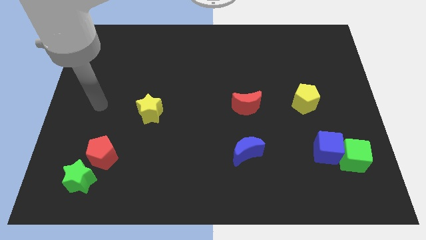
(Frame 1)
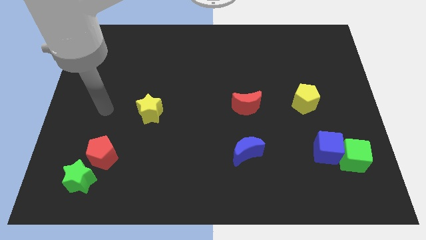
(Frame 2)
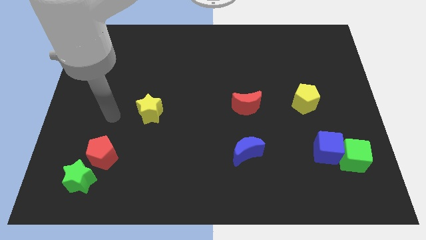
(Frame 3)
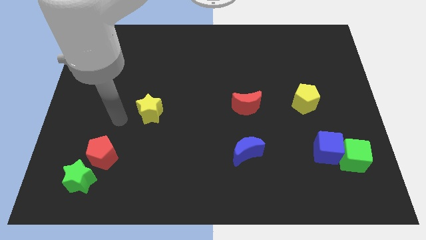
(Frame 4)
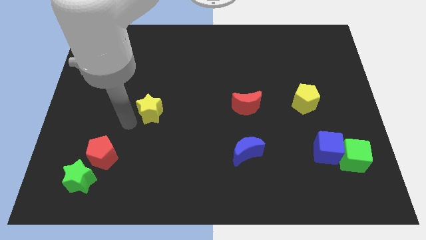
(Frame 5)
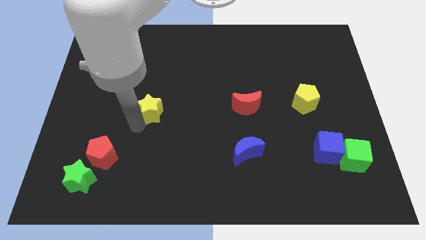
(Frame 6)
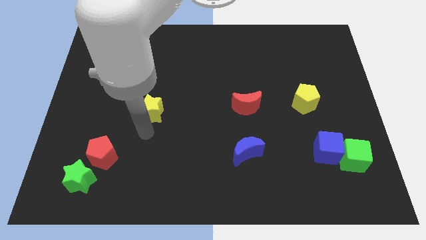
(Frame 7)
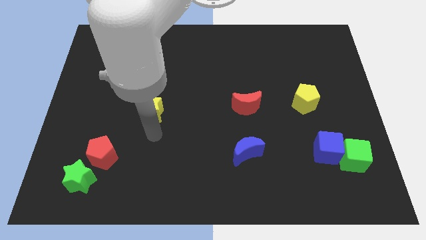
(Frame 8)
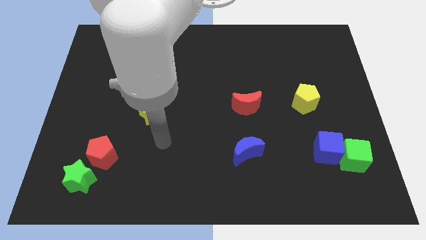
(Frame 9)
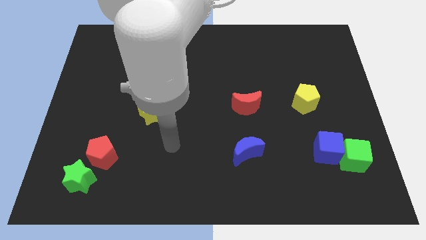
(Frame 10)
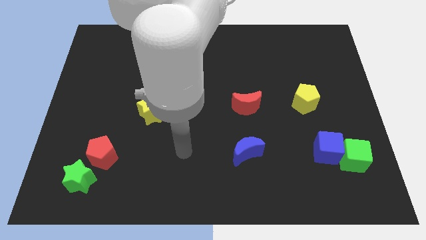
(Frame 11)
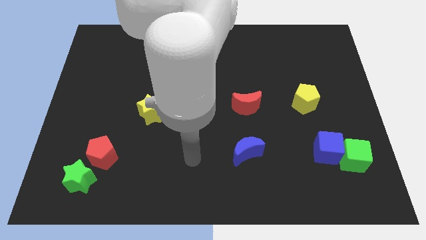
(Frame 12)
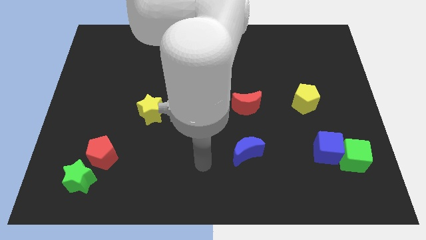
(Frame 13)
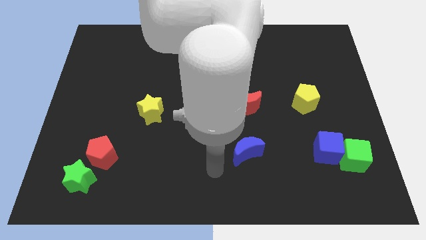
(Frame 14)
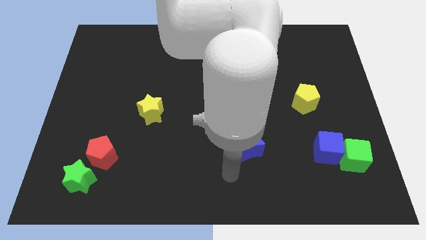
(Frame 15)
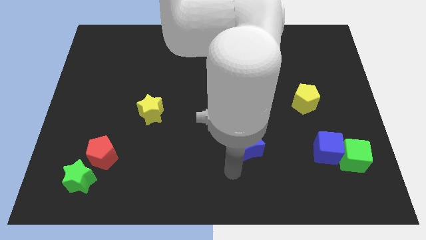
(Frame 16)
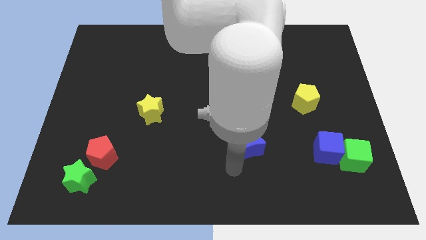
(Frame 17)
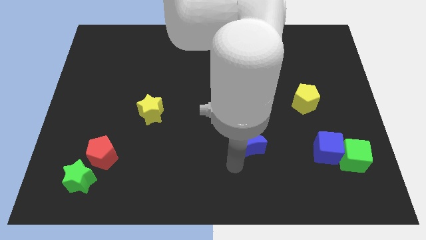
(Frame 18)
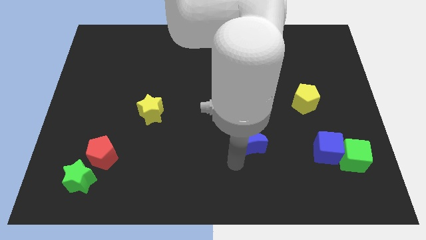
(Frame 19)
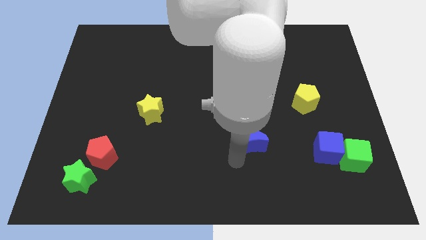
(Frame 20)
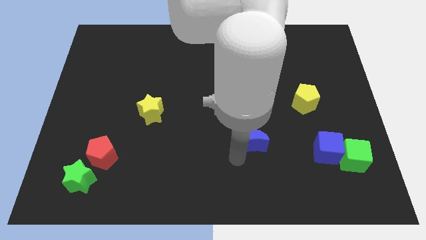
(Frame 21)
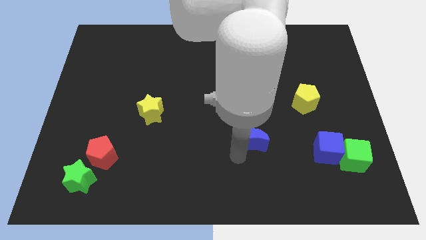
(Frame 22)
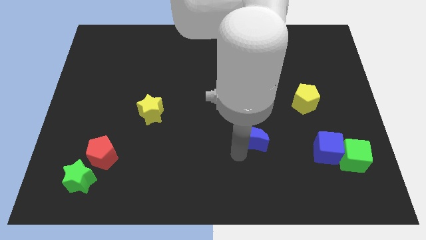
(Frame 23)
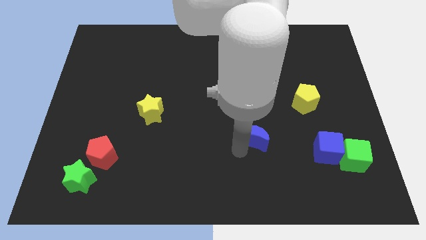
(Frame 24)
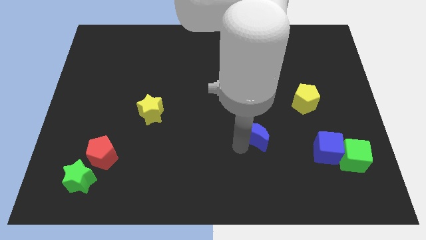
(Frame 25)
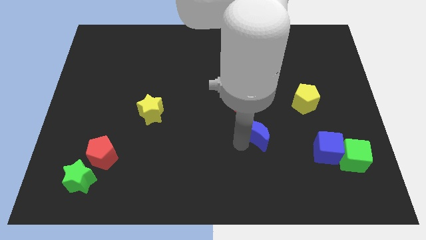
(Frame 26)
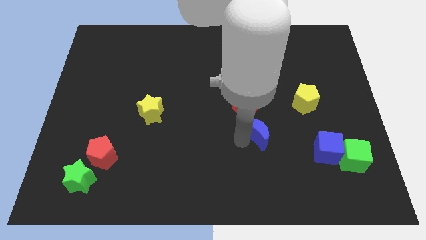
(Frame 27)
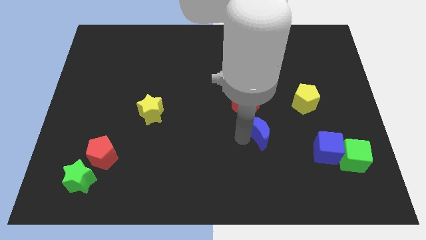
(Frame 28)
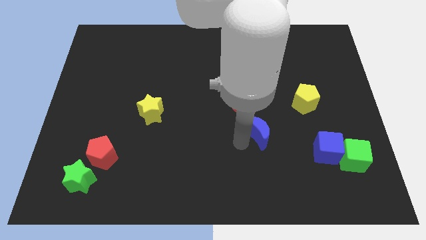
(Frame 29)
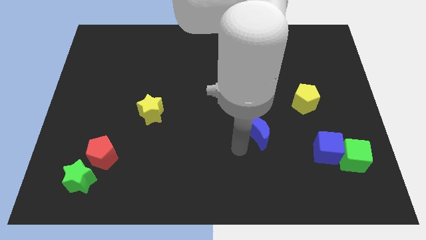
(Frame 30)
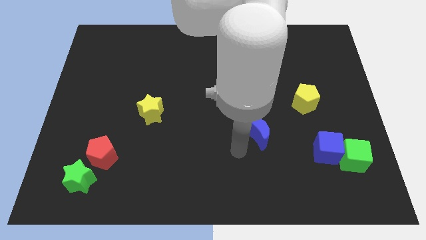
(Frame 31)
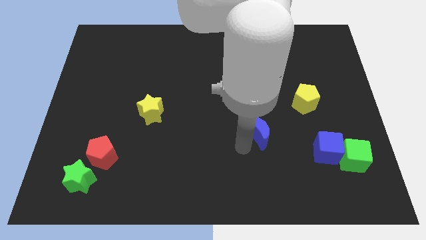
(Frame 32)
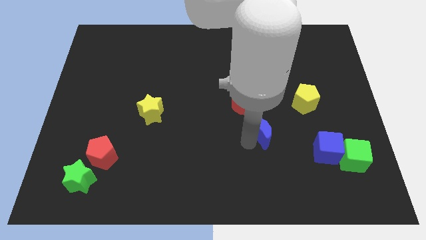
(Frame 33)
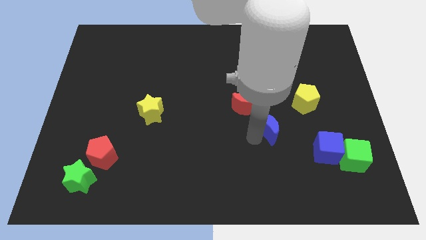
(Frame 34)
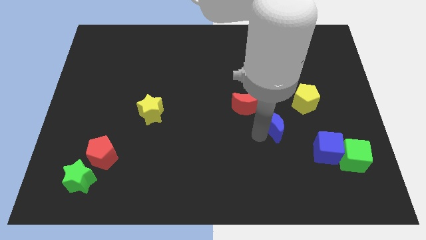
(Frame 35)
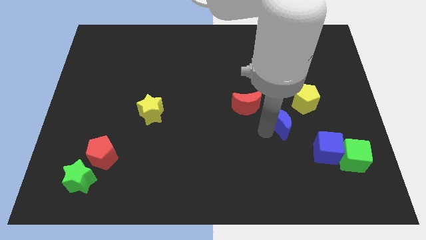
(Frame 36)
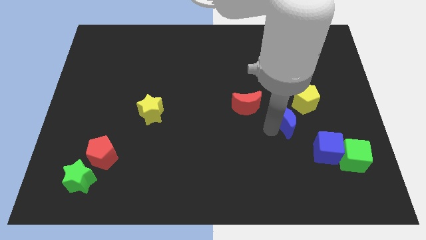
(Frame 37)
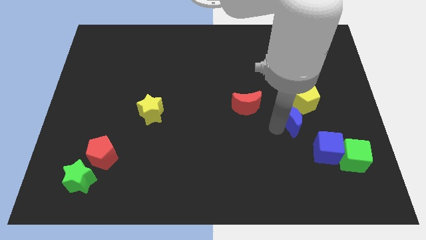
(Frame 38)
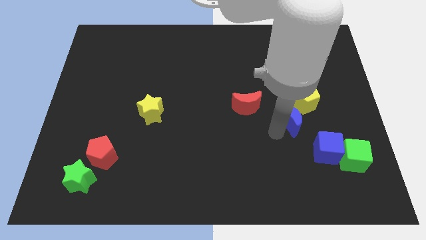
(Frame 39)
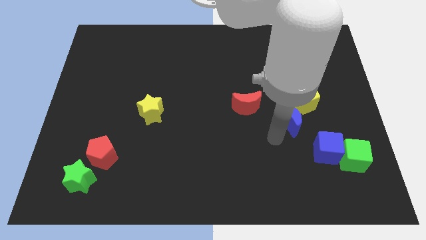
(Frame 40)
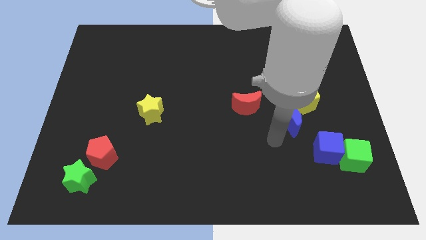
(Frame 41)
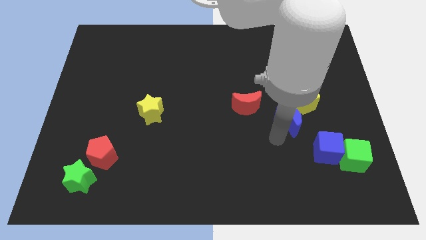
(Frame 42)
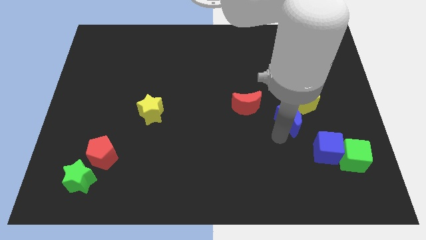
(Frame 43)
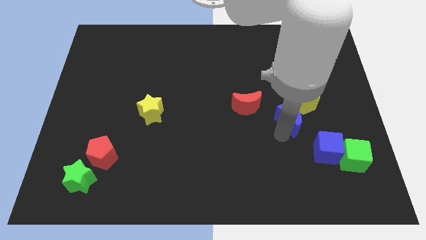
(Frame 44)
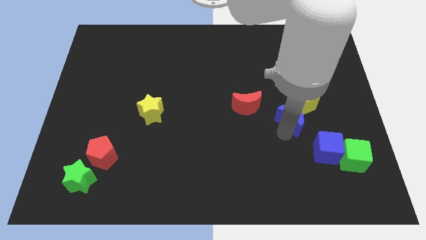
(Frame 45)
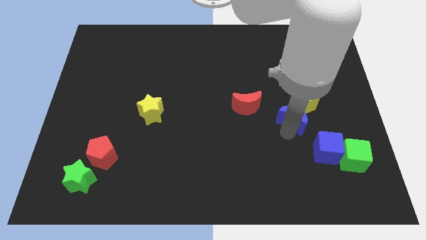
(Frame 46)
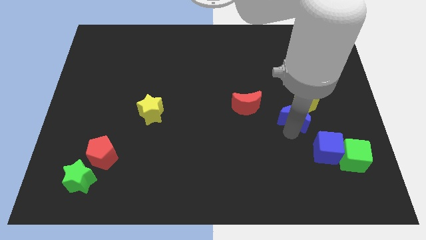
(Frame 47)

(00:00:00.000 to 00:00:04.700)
move the blue moon towards the yellow pentagon

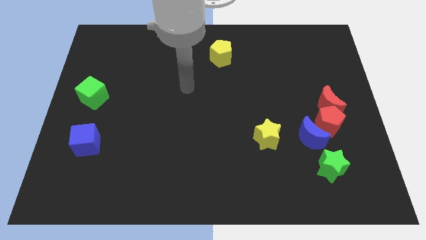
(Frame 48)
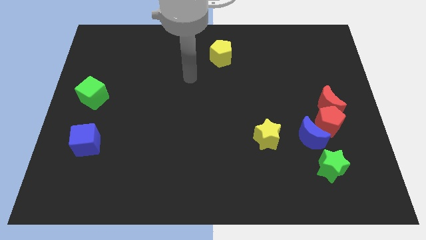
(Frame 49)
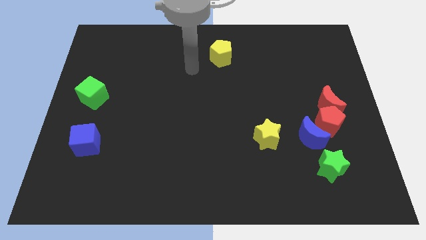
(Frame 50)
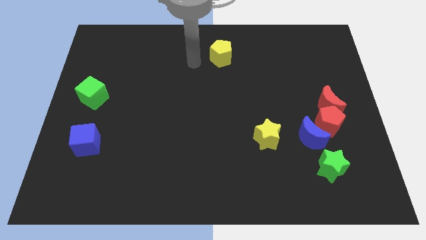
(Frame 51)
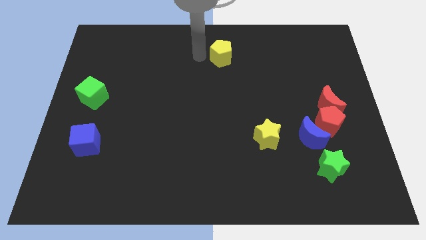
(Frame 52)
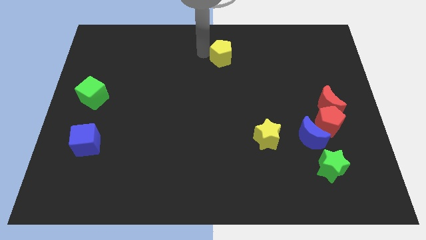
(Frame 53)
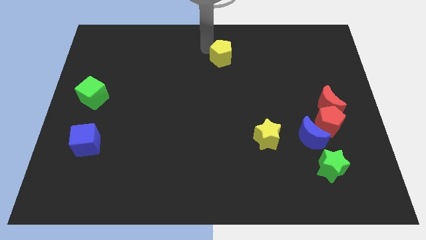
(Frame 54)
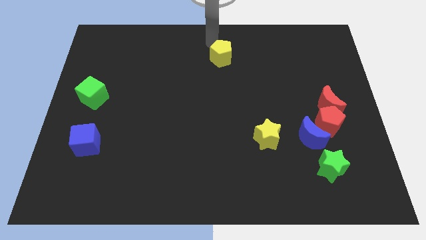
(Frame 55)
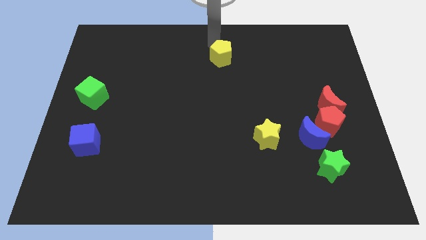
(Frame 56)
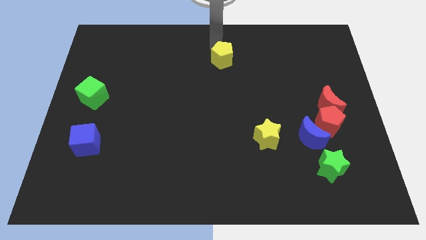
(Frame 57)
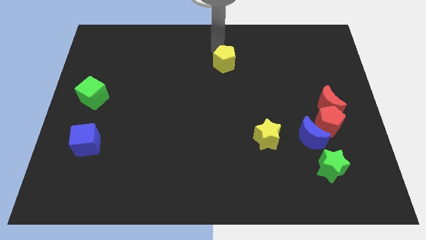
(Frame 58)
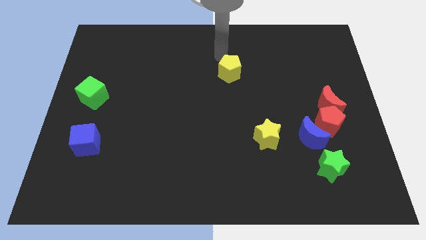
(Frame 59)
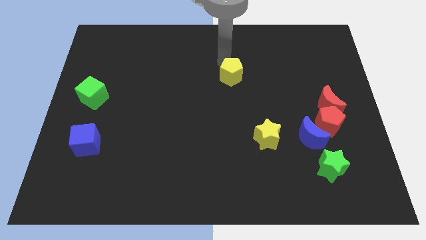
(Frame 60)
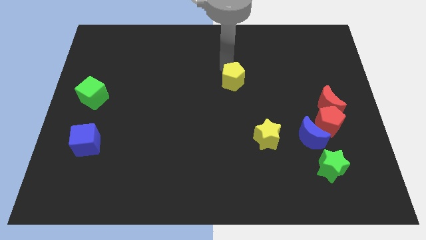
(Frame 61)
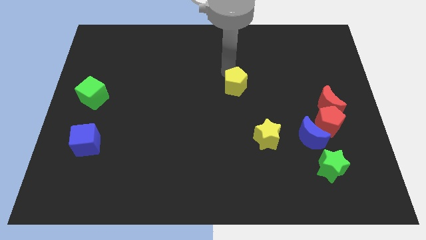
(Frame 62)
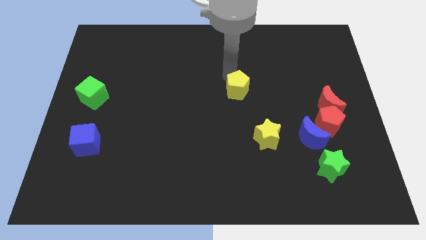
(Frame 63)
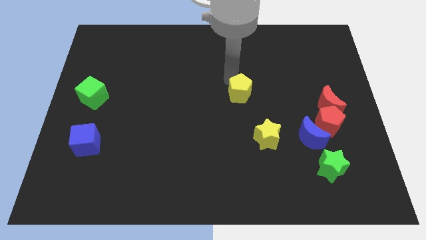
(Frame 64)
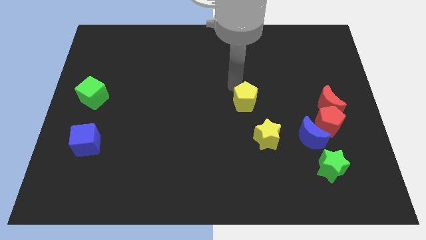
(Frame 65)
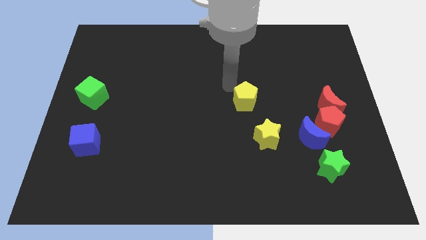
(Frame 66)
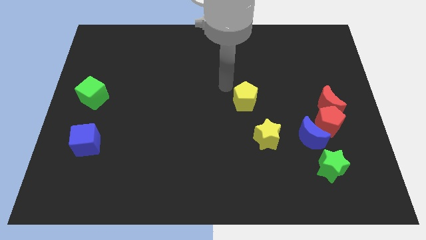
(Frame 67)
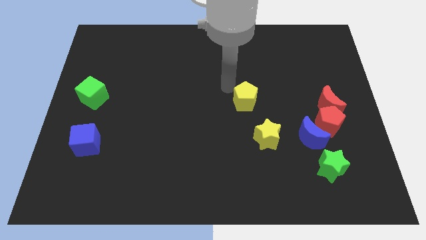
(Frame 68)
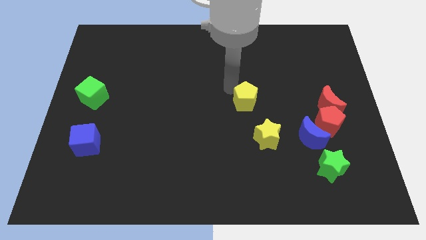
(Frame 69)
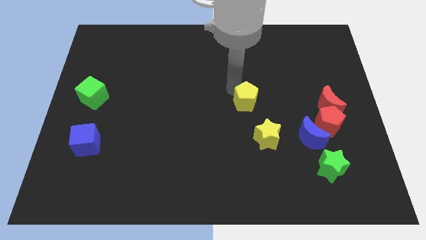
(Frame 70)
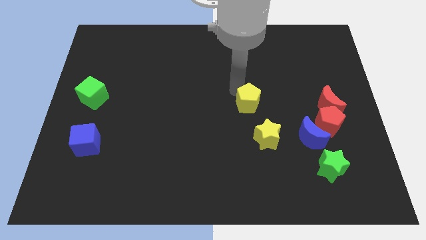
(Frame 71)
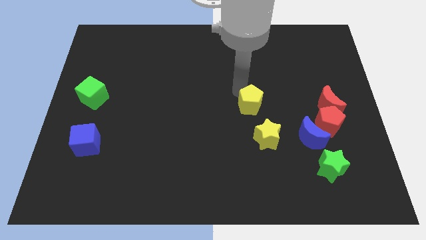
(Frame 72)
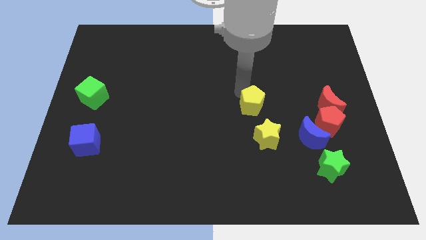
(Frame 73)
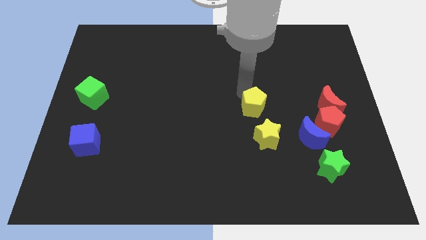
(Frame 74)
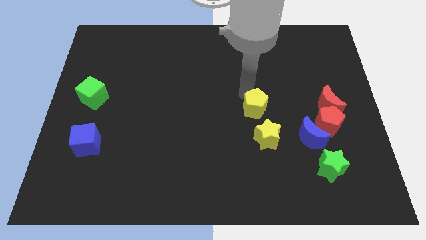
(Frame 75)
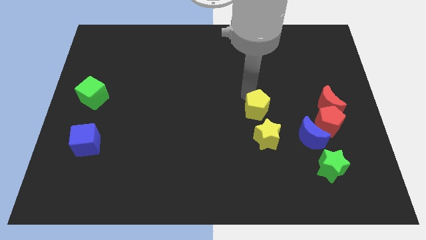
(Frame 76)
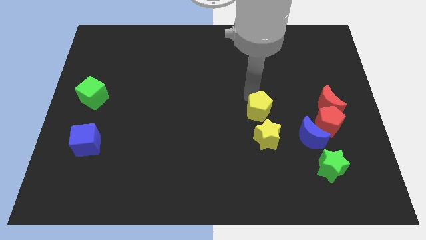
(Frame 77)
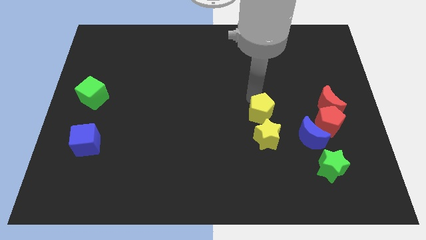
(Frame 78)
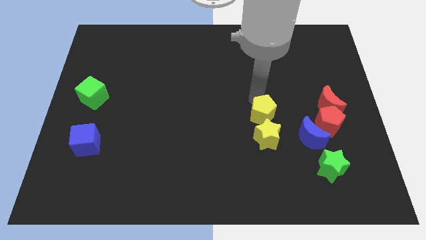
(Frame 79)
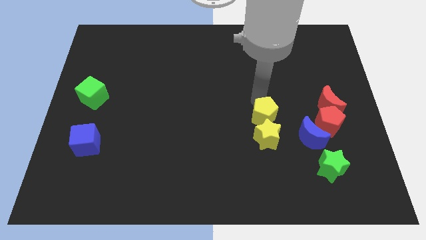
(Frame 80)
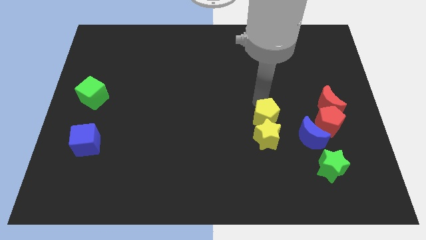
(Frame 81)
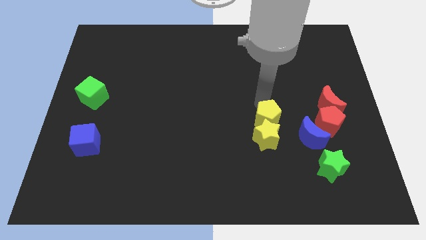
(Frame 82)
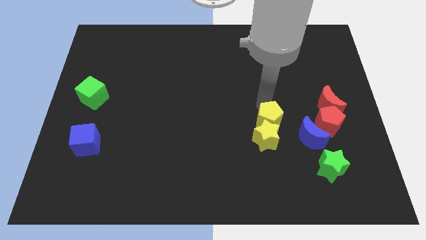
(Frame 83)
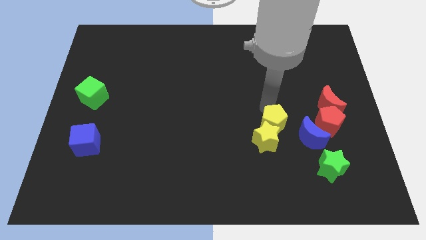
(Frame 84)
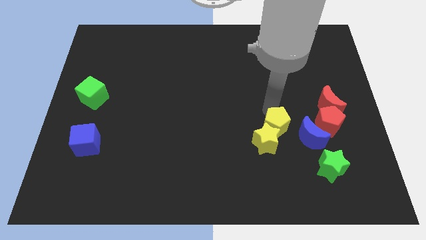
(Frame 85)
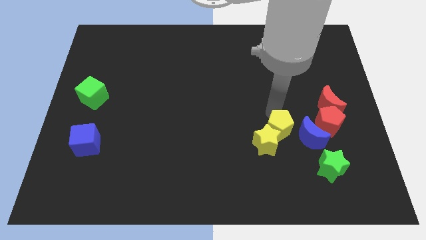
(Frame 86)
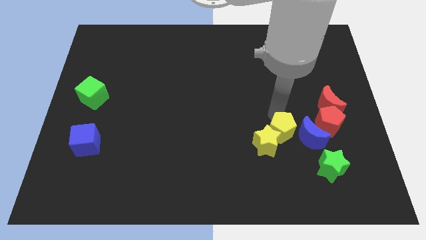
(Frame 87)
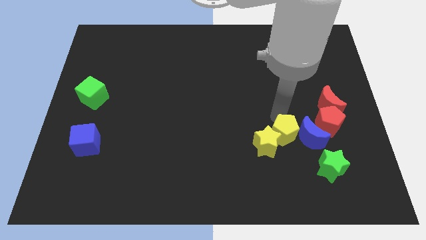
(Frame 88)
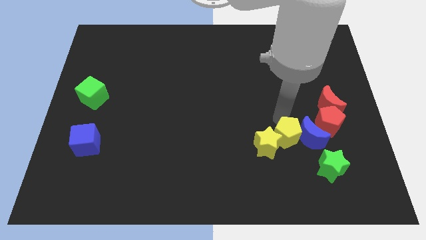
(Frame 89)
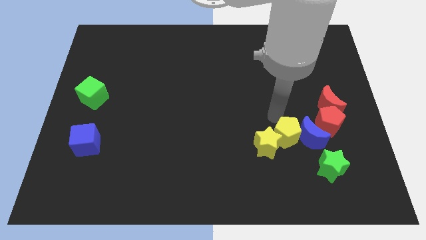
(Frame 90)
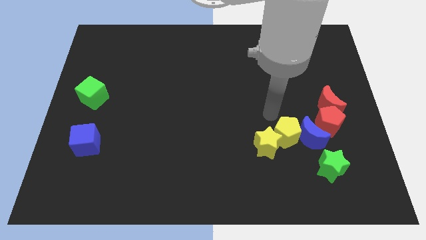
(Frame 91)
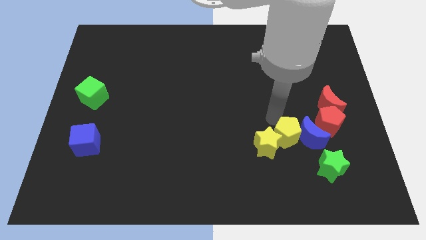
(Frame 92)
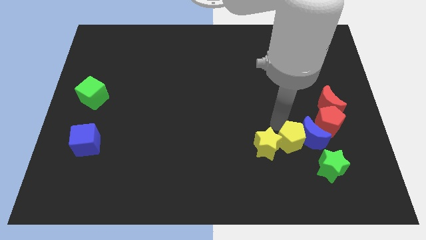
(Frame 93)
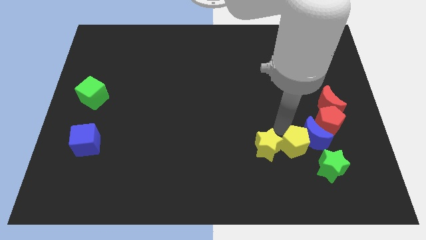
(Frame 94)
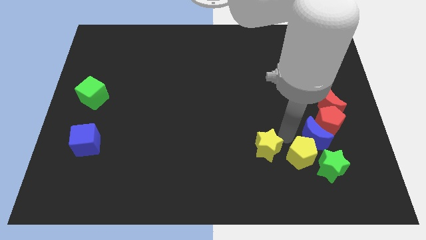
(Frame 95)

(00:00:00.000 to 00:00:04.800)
push the yellow pentagon close to the green star
